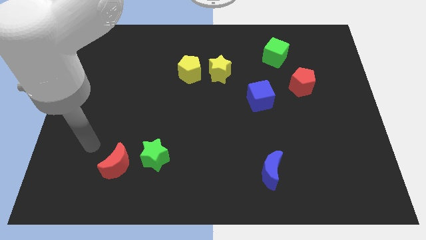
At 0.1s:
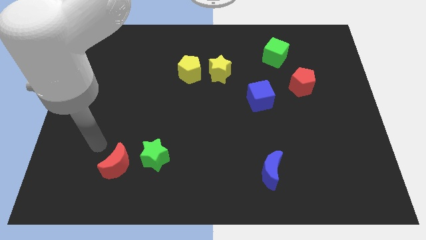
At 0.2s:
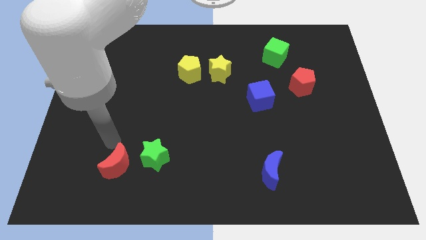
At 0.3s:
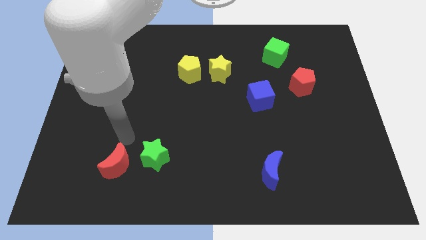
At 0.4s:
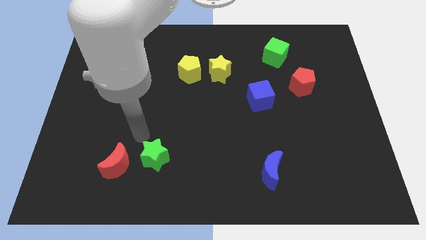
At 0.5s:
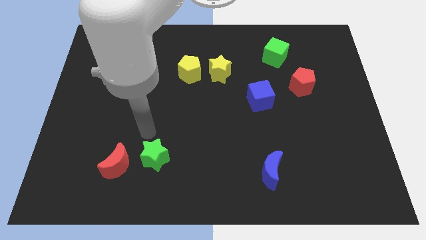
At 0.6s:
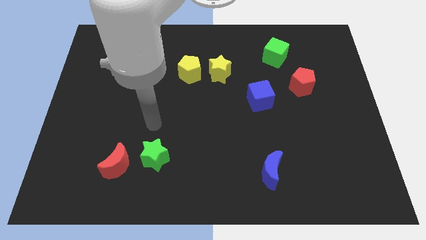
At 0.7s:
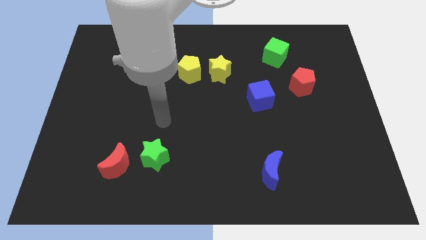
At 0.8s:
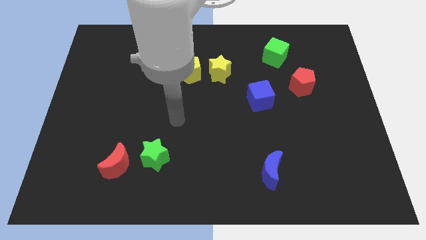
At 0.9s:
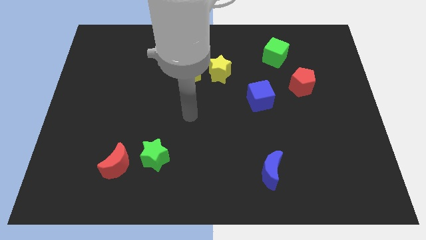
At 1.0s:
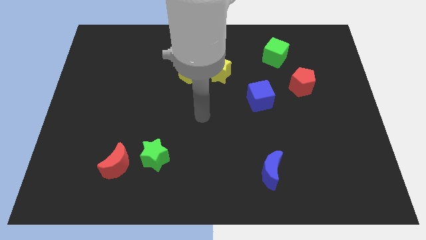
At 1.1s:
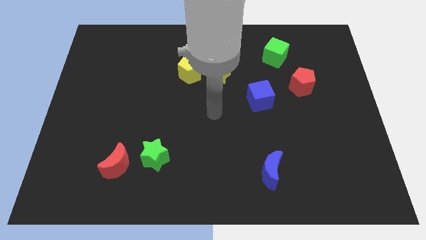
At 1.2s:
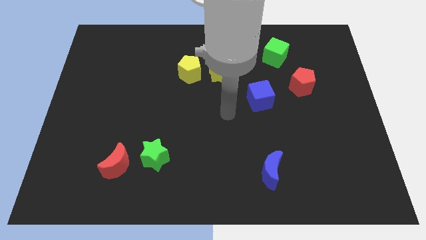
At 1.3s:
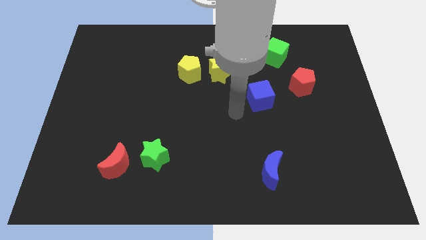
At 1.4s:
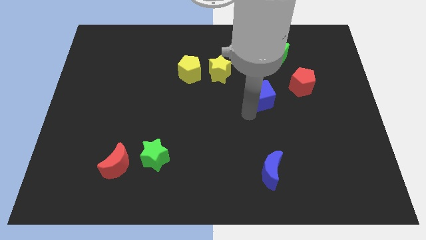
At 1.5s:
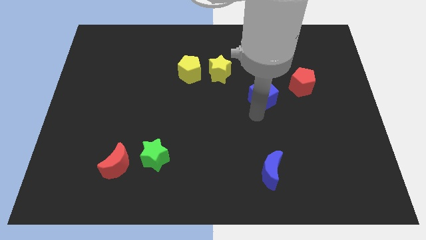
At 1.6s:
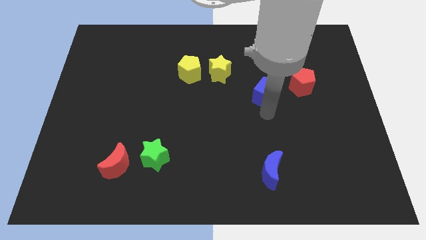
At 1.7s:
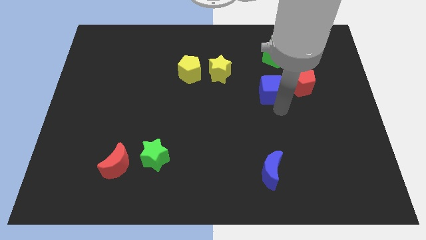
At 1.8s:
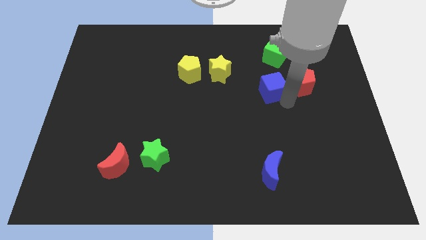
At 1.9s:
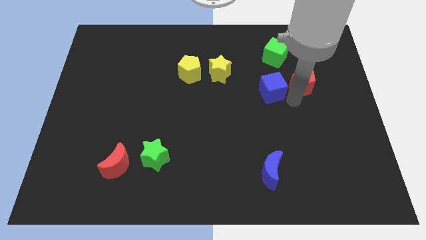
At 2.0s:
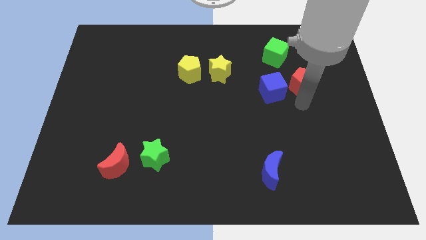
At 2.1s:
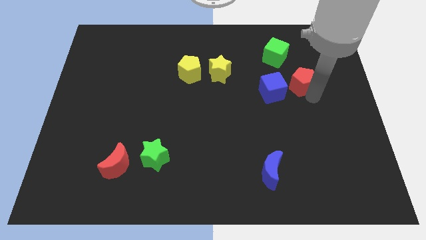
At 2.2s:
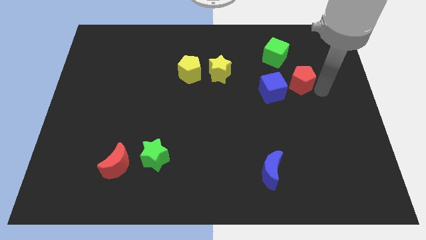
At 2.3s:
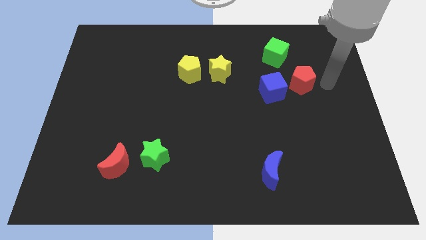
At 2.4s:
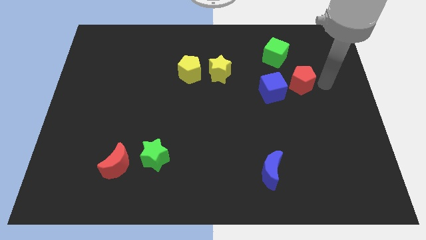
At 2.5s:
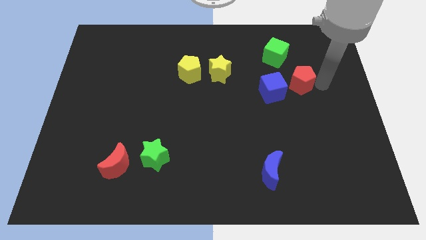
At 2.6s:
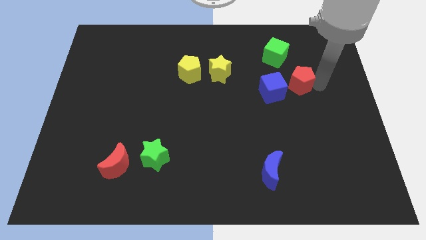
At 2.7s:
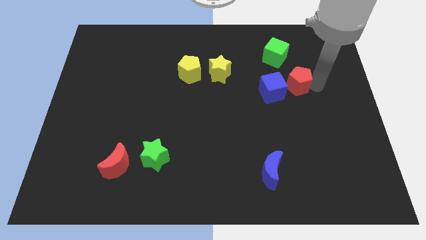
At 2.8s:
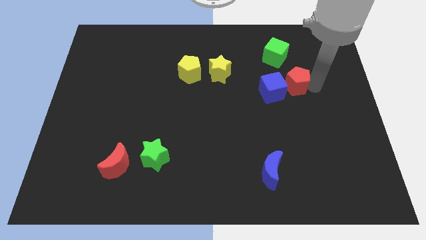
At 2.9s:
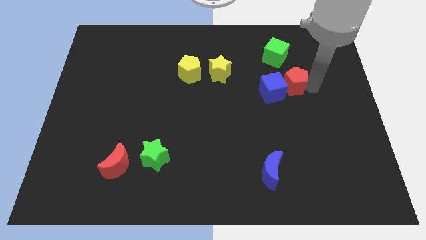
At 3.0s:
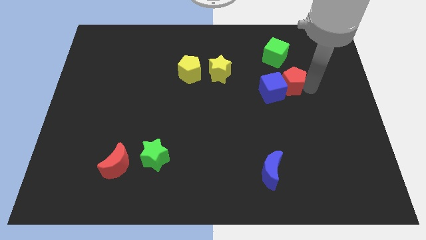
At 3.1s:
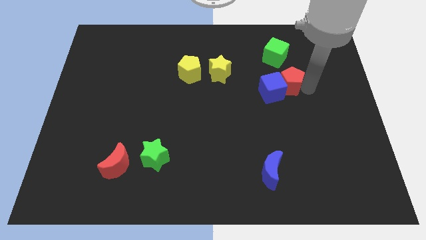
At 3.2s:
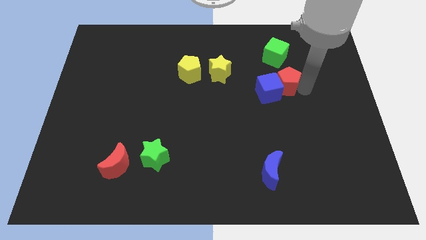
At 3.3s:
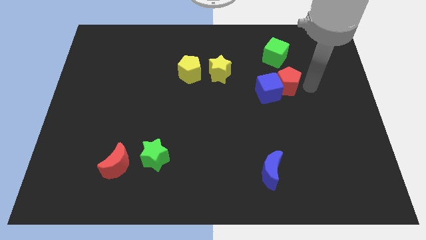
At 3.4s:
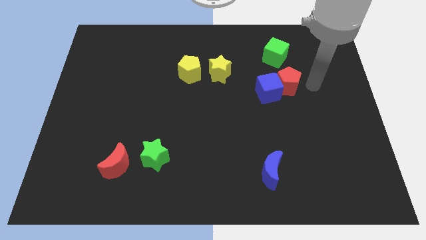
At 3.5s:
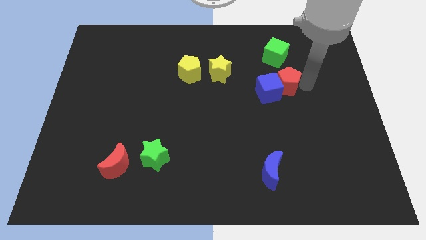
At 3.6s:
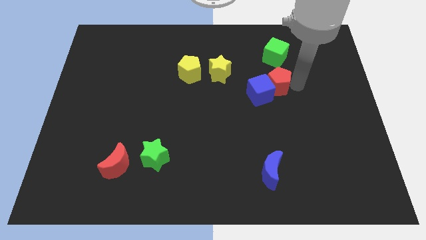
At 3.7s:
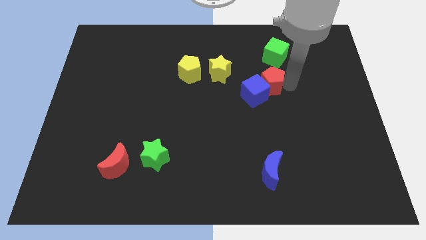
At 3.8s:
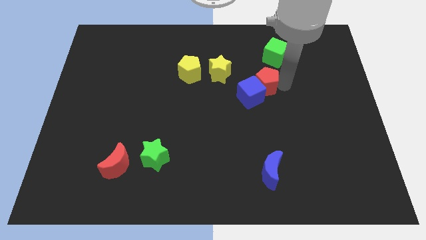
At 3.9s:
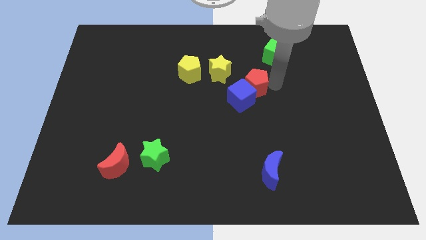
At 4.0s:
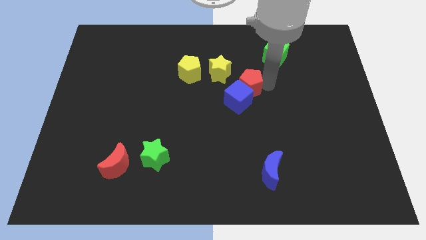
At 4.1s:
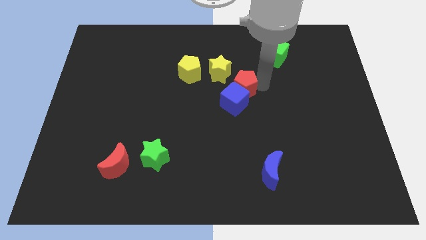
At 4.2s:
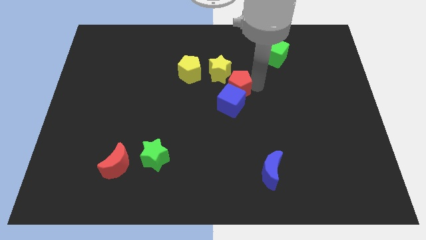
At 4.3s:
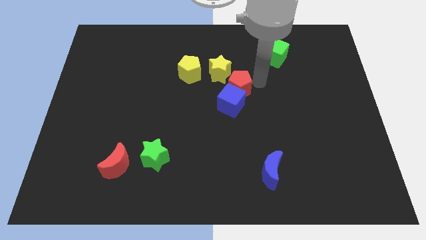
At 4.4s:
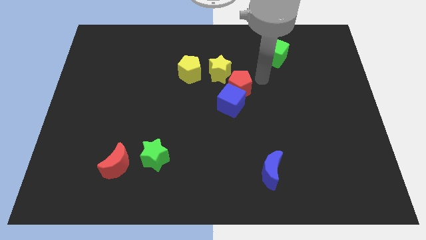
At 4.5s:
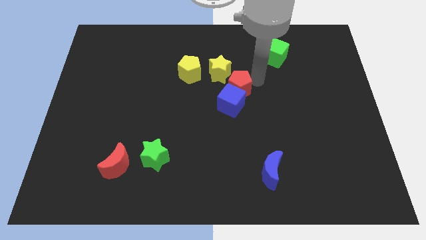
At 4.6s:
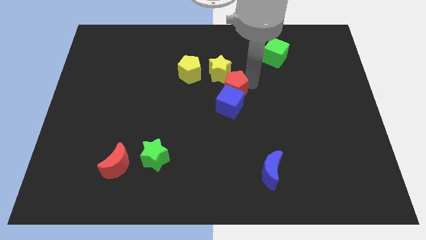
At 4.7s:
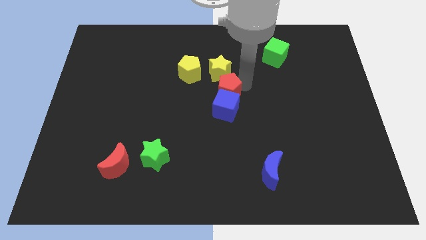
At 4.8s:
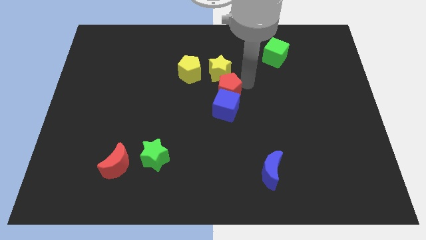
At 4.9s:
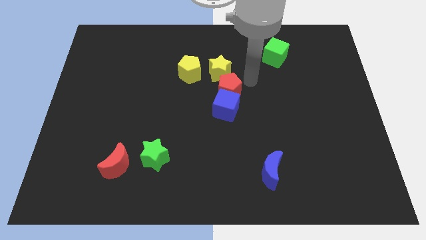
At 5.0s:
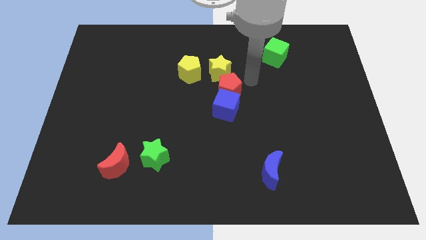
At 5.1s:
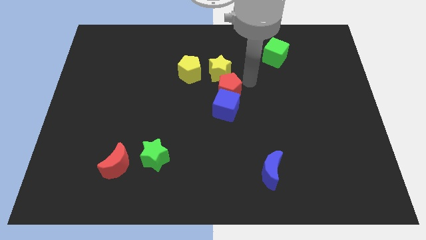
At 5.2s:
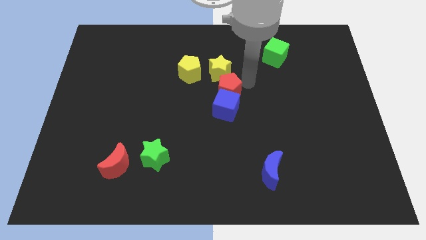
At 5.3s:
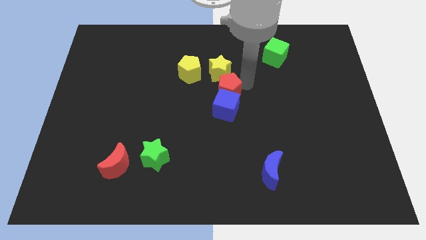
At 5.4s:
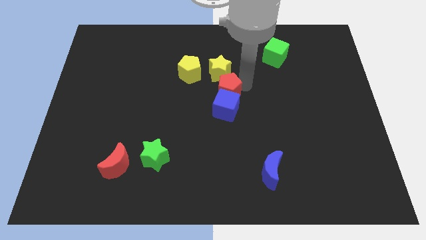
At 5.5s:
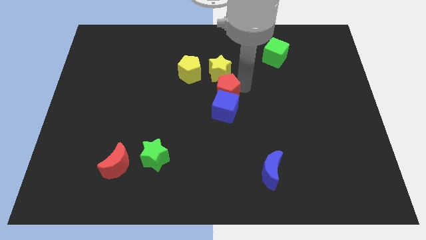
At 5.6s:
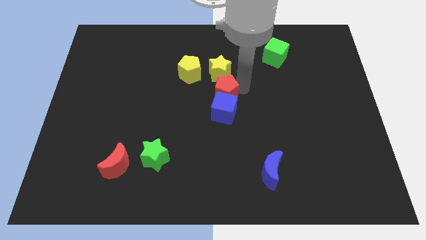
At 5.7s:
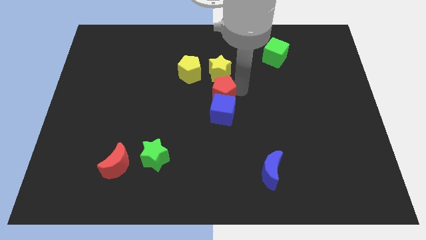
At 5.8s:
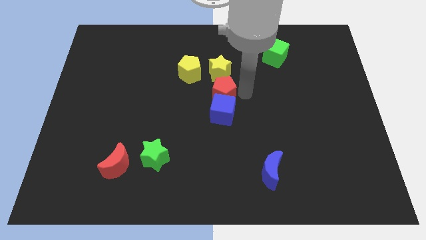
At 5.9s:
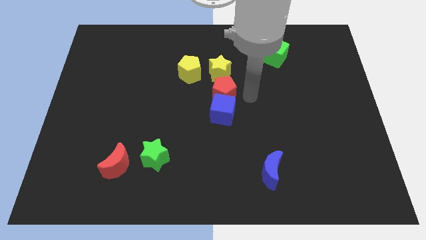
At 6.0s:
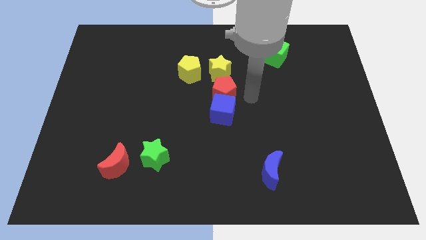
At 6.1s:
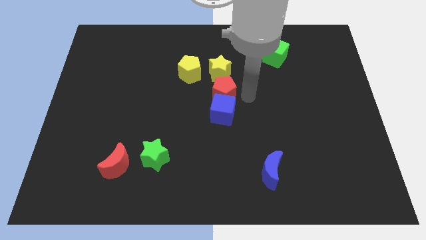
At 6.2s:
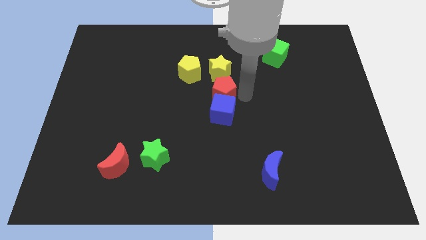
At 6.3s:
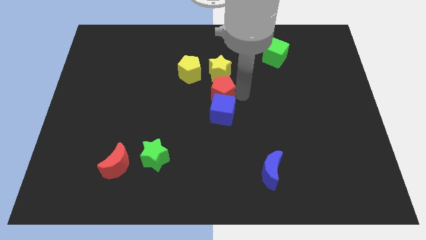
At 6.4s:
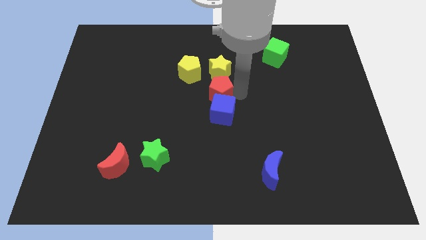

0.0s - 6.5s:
slide the red pentagon left

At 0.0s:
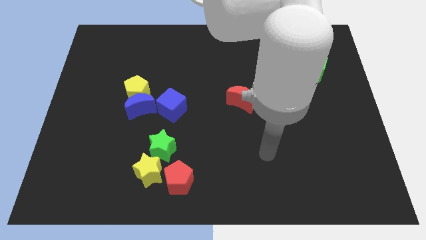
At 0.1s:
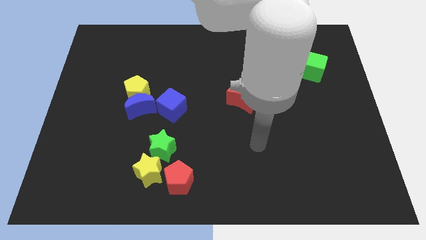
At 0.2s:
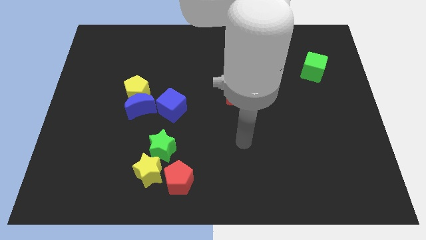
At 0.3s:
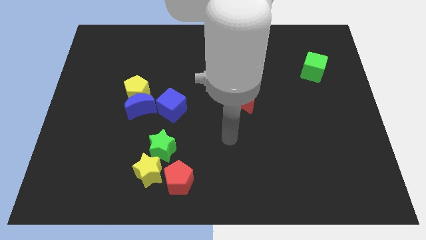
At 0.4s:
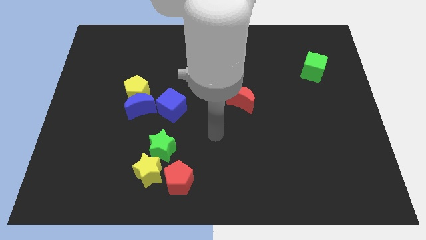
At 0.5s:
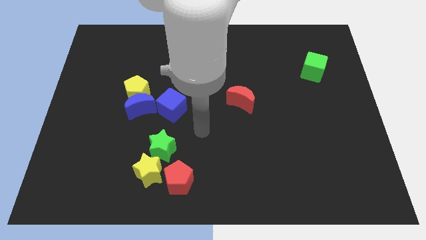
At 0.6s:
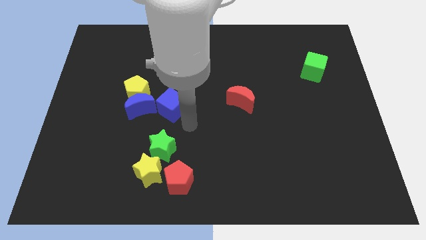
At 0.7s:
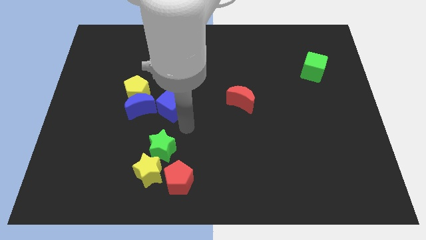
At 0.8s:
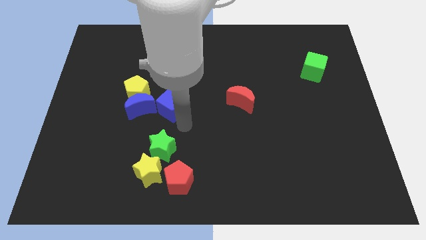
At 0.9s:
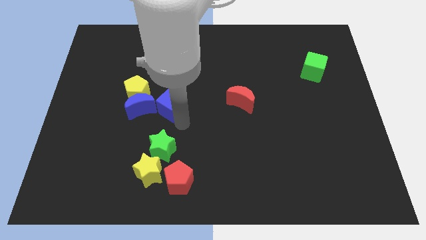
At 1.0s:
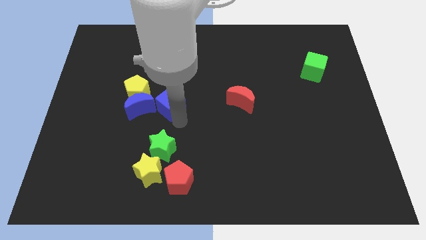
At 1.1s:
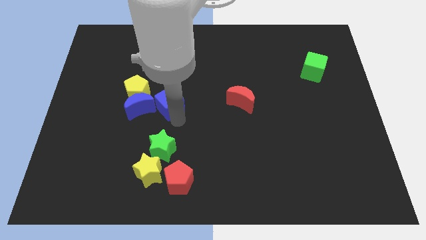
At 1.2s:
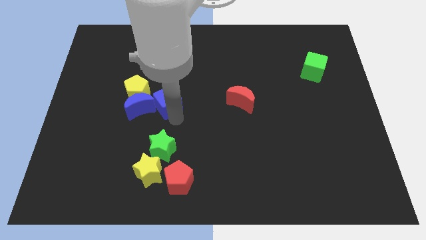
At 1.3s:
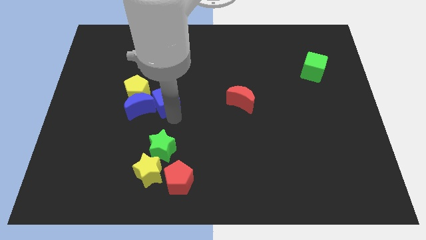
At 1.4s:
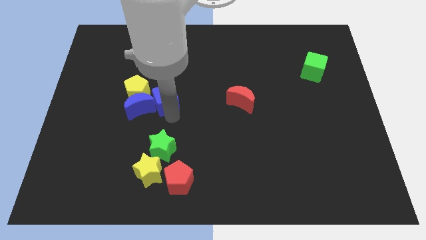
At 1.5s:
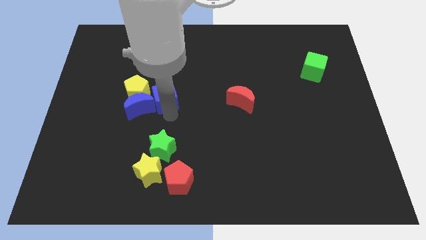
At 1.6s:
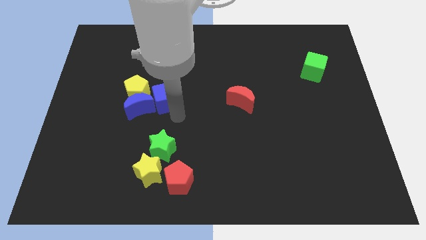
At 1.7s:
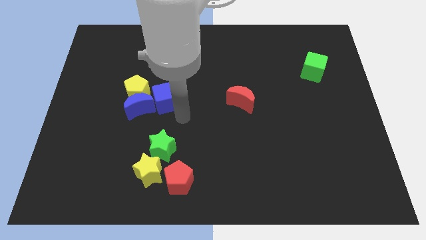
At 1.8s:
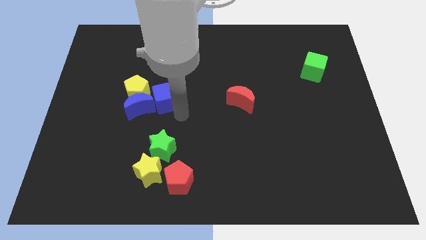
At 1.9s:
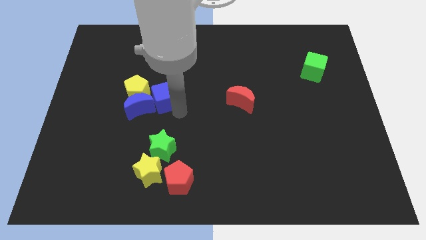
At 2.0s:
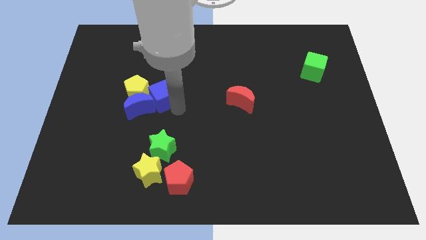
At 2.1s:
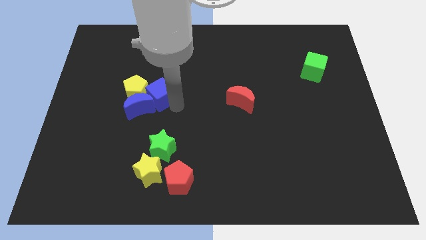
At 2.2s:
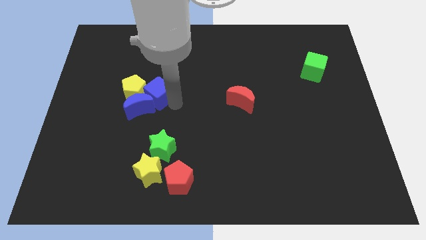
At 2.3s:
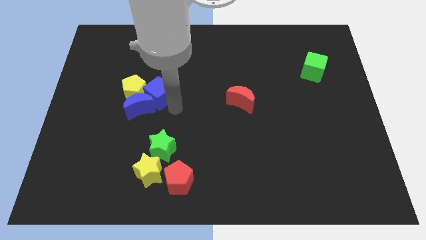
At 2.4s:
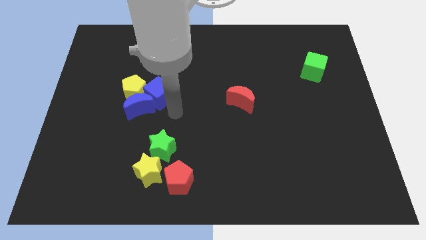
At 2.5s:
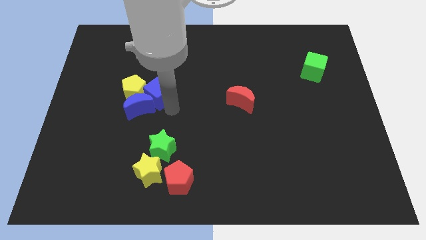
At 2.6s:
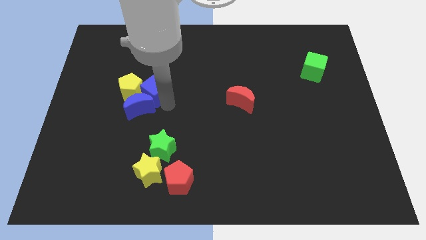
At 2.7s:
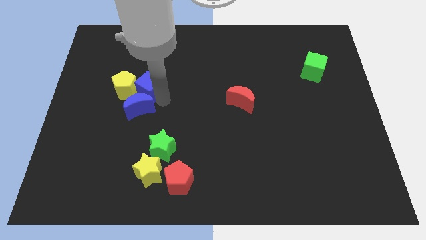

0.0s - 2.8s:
push the blue cube up and left diagonally a little
